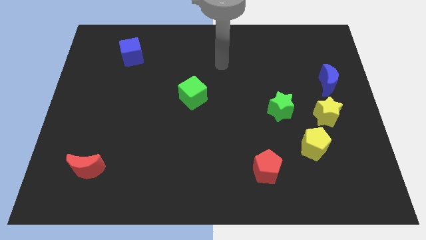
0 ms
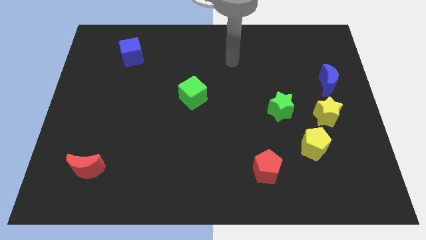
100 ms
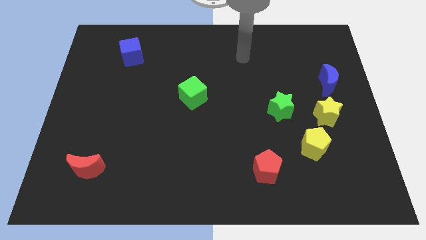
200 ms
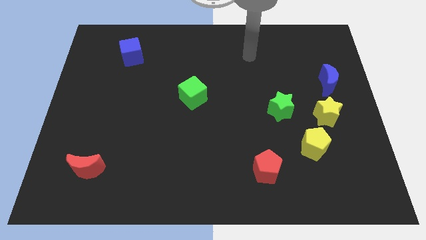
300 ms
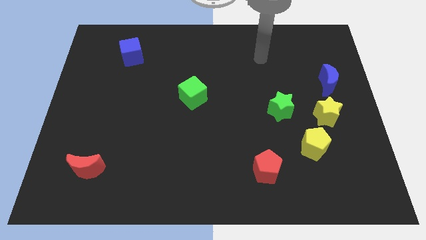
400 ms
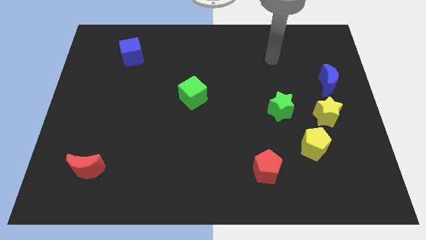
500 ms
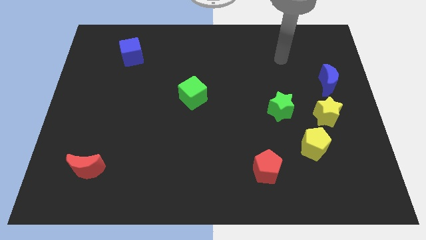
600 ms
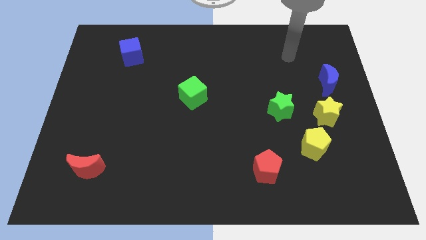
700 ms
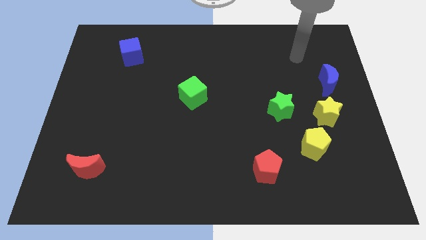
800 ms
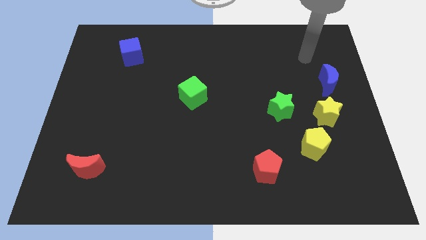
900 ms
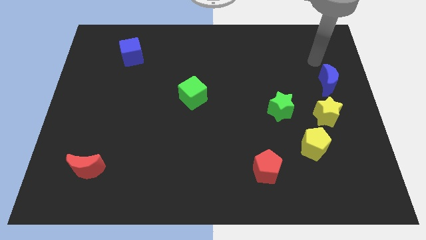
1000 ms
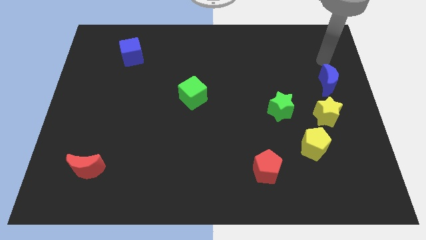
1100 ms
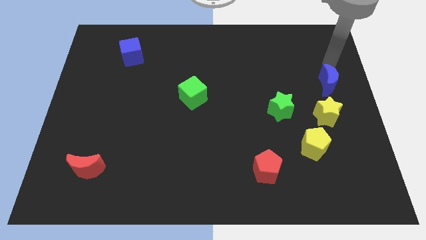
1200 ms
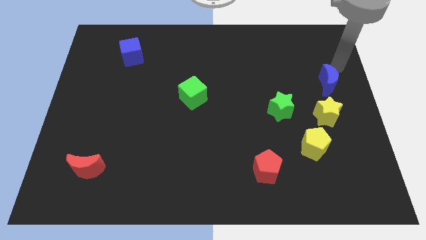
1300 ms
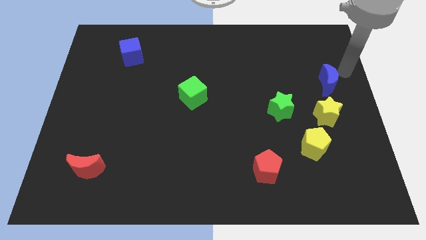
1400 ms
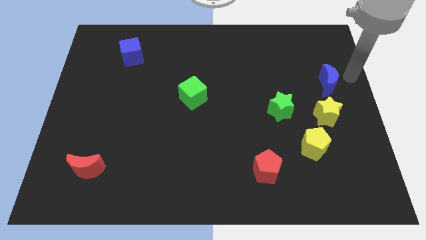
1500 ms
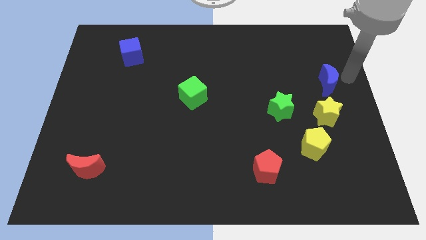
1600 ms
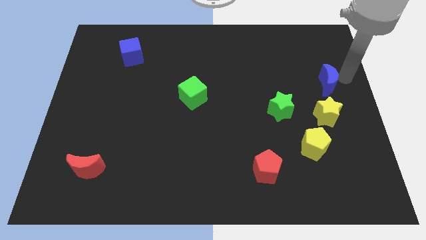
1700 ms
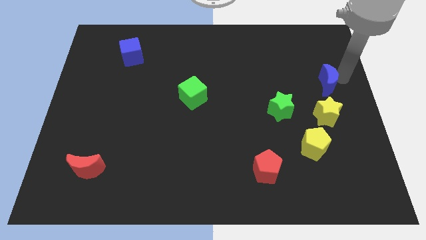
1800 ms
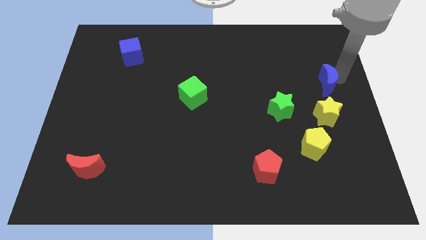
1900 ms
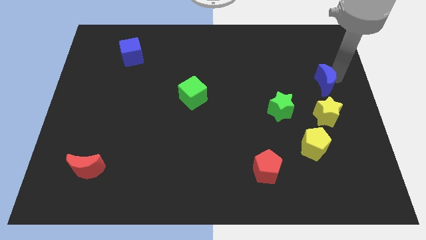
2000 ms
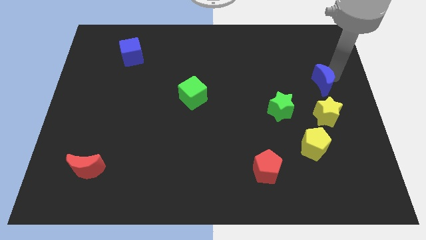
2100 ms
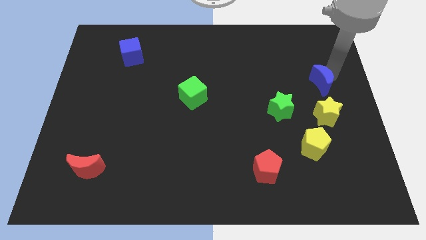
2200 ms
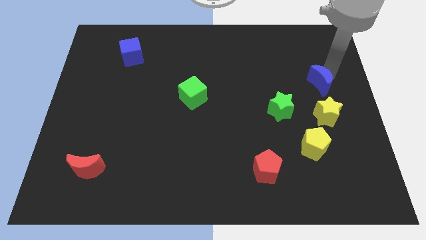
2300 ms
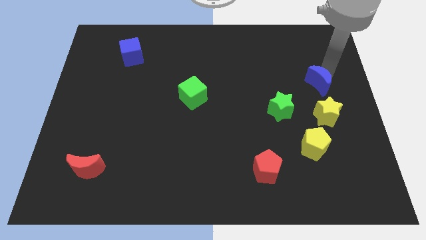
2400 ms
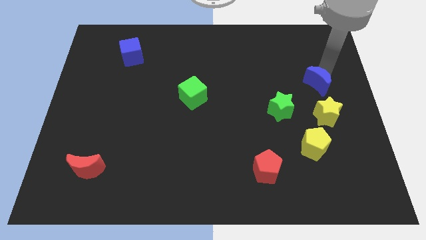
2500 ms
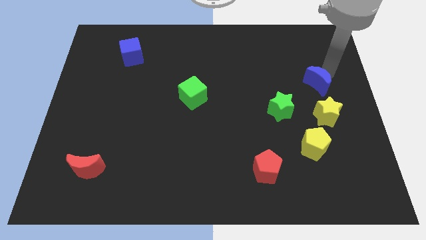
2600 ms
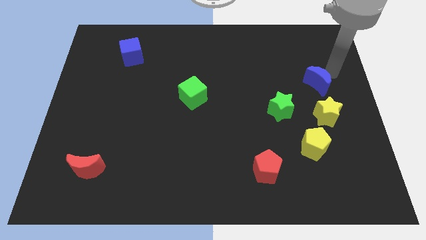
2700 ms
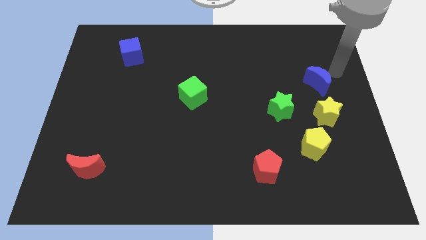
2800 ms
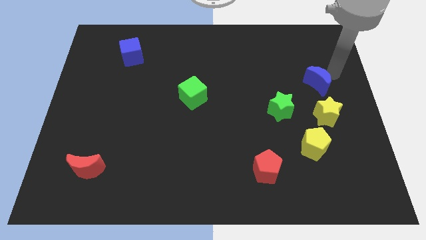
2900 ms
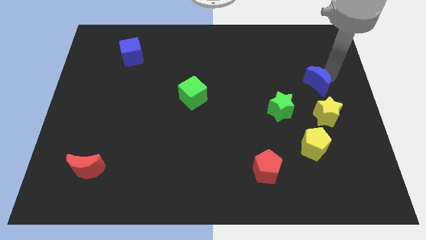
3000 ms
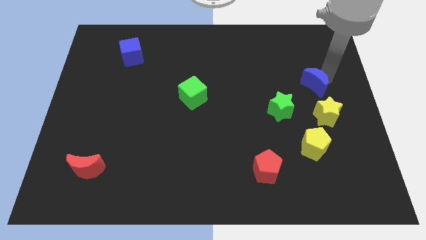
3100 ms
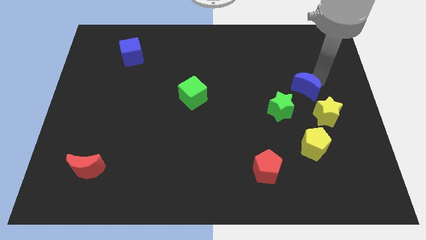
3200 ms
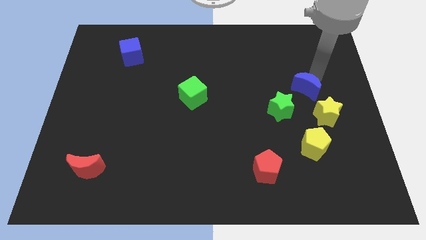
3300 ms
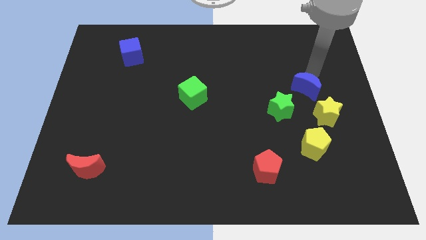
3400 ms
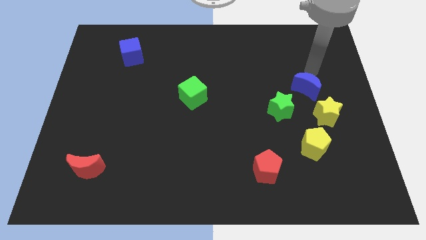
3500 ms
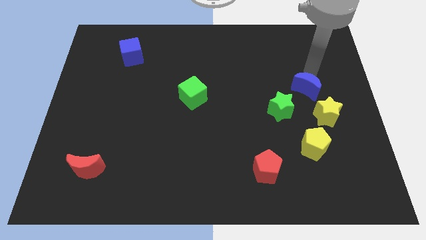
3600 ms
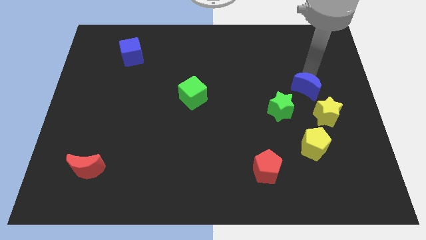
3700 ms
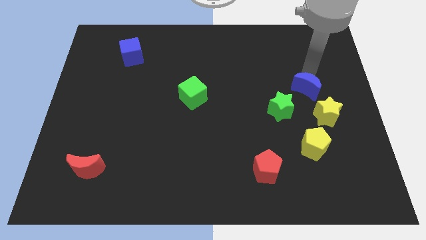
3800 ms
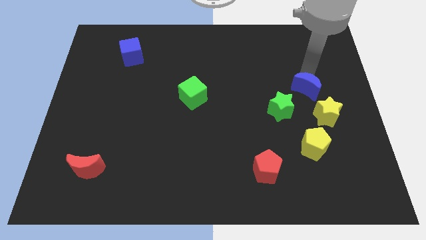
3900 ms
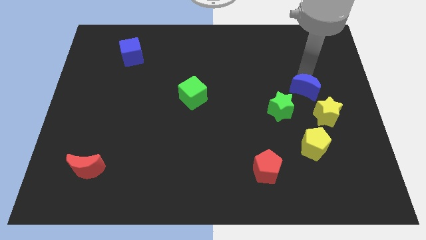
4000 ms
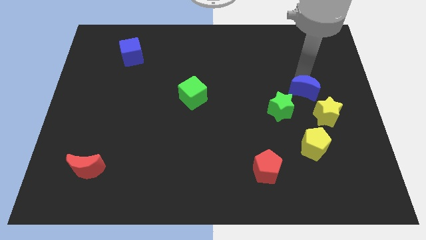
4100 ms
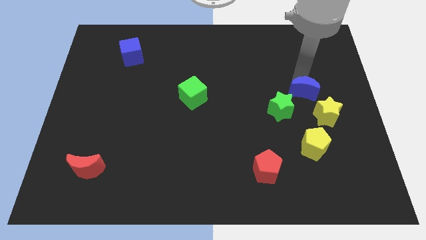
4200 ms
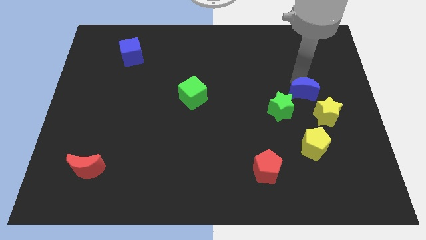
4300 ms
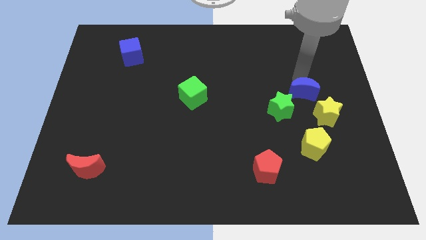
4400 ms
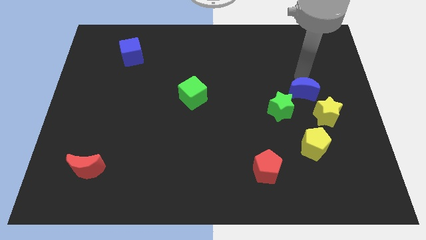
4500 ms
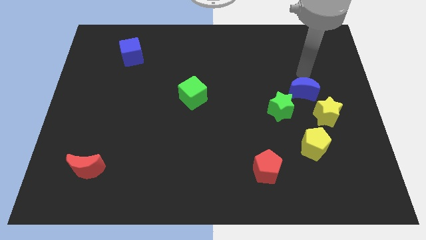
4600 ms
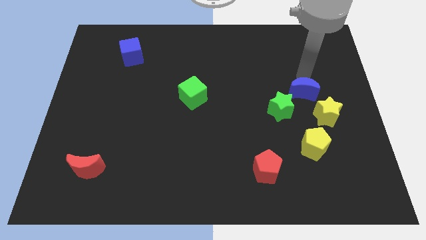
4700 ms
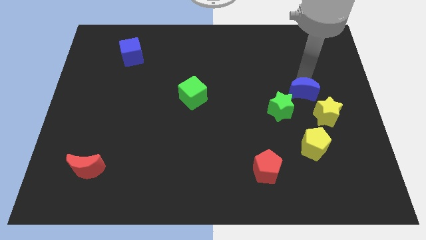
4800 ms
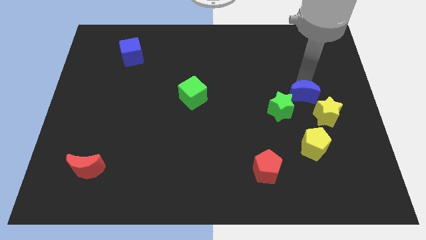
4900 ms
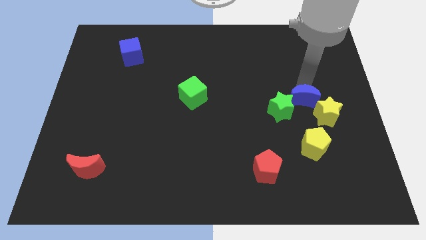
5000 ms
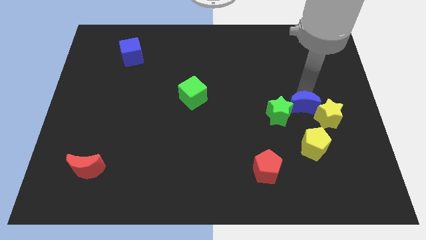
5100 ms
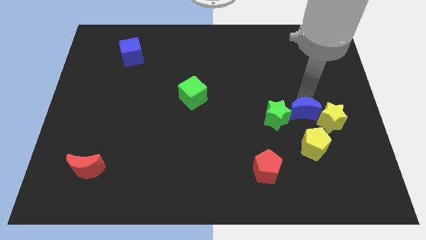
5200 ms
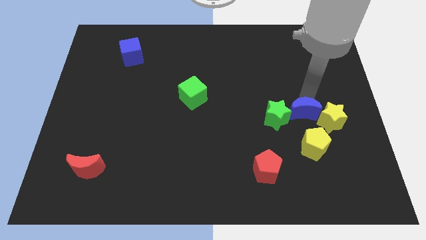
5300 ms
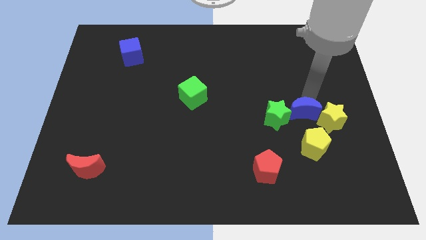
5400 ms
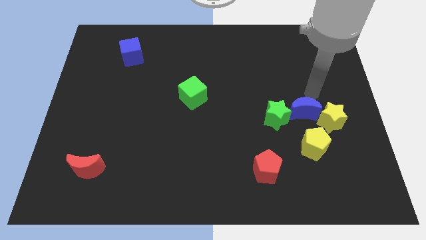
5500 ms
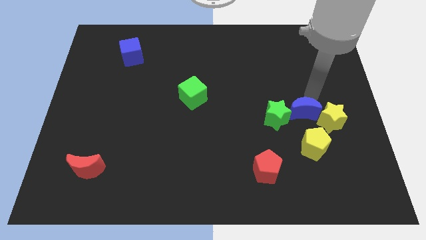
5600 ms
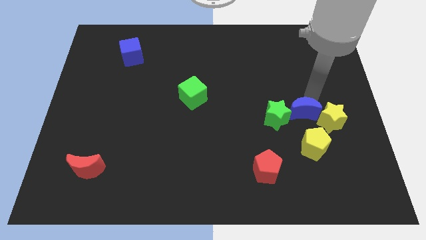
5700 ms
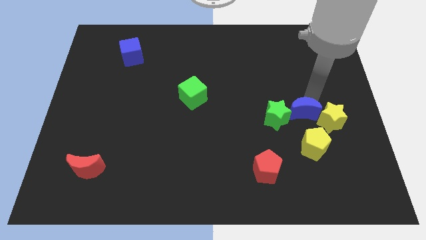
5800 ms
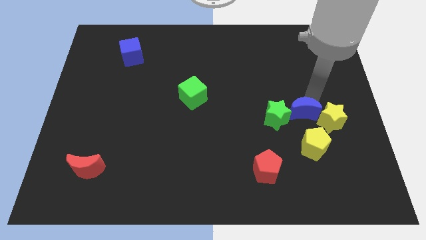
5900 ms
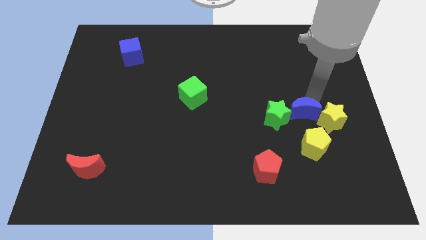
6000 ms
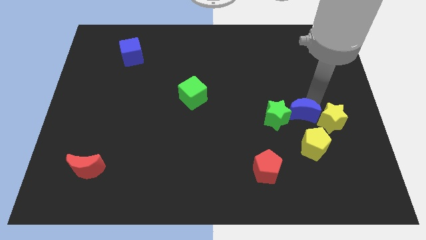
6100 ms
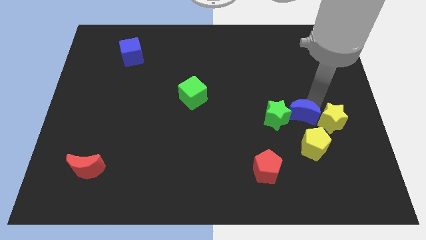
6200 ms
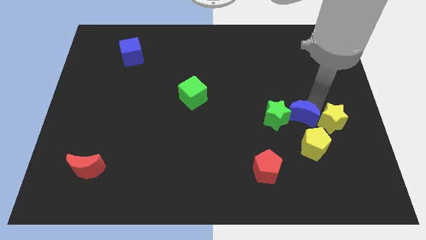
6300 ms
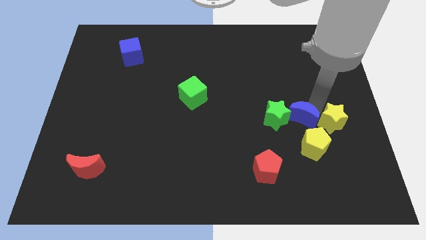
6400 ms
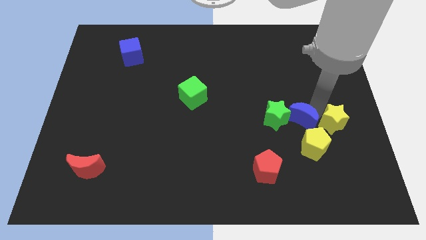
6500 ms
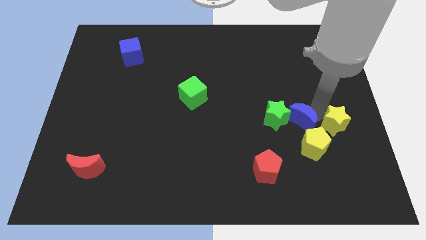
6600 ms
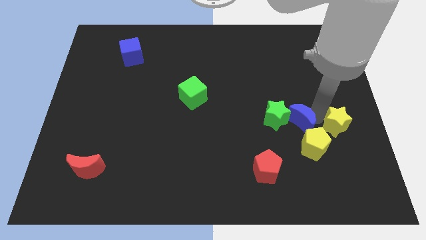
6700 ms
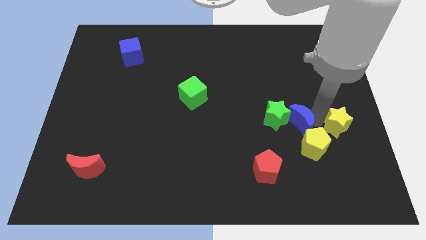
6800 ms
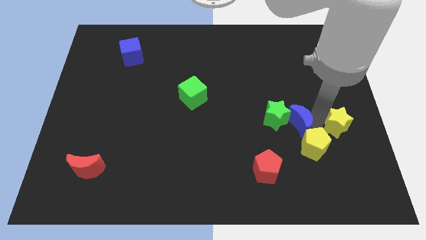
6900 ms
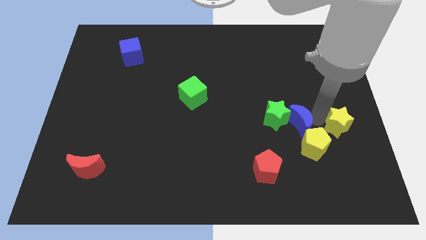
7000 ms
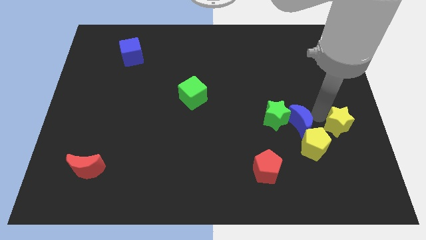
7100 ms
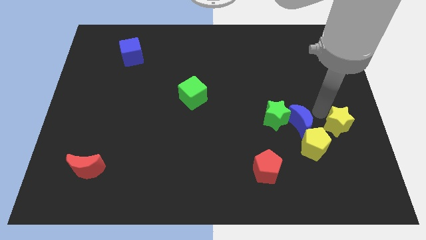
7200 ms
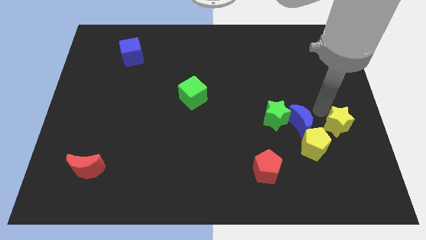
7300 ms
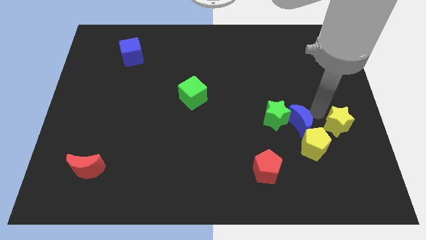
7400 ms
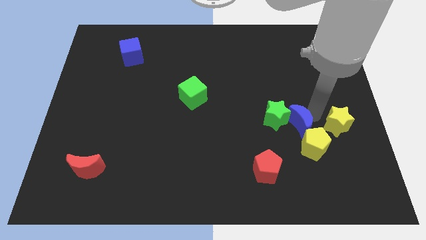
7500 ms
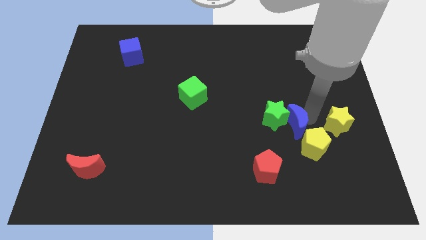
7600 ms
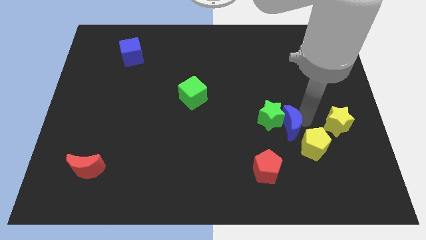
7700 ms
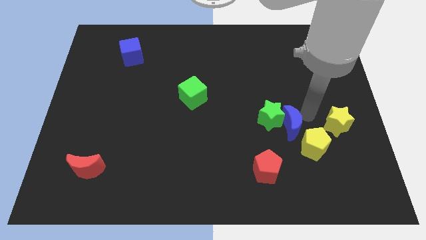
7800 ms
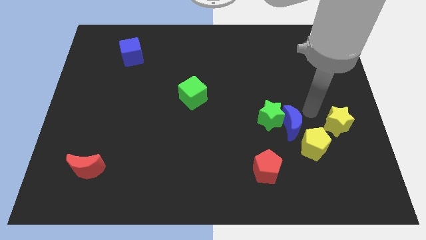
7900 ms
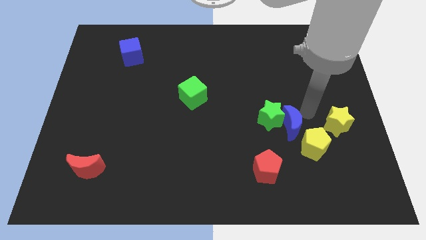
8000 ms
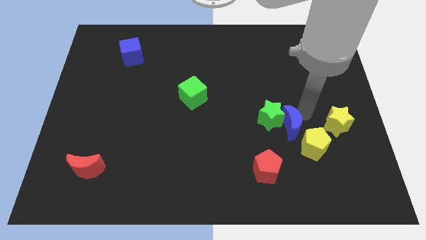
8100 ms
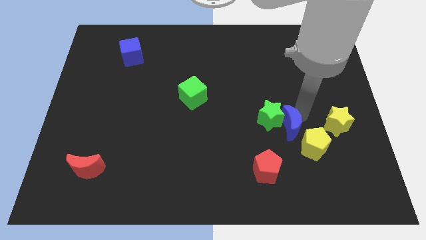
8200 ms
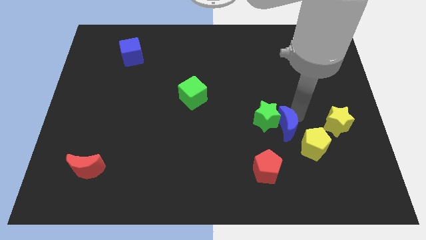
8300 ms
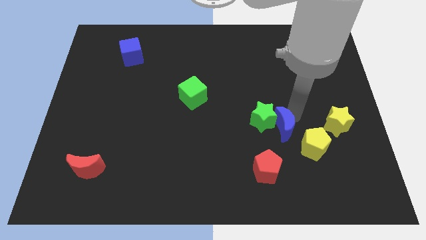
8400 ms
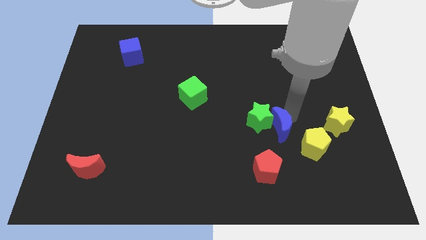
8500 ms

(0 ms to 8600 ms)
push the blue moon to the left side of the yellow pentagon
